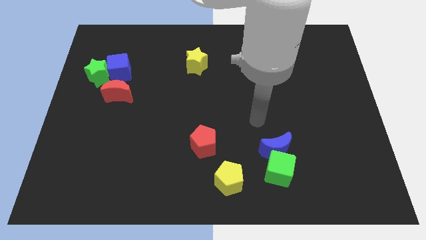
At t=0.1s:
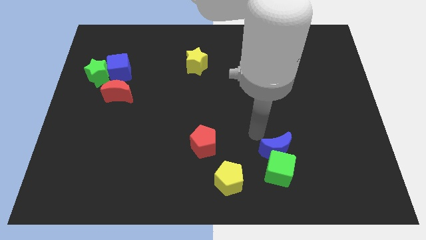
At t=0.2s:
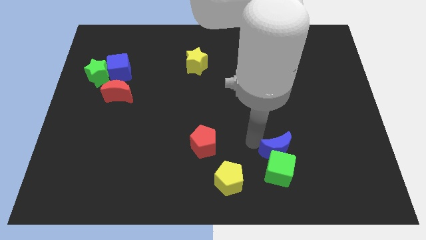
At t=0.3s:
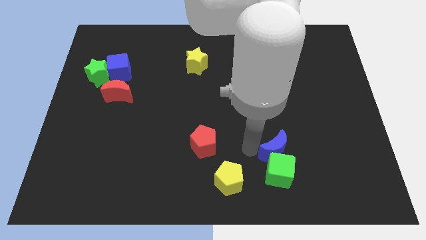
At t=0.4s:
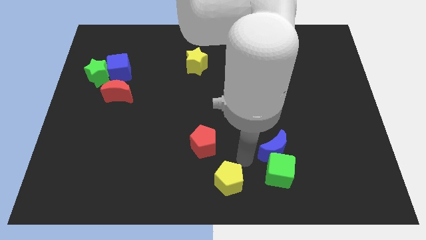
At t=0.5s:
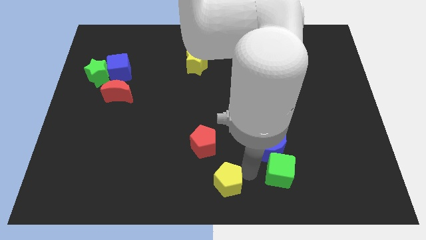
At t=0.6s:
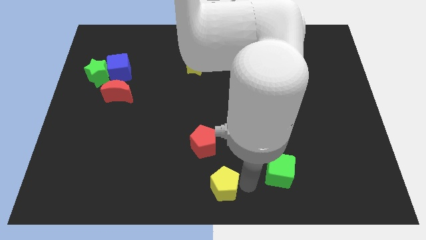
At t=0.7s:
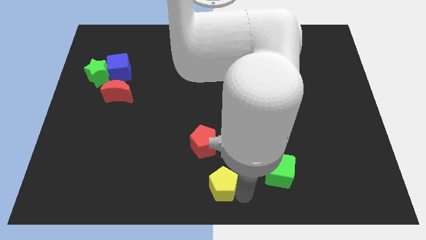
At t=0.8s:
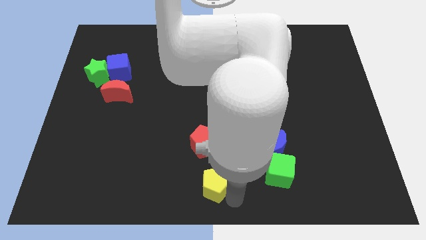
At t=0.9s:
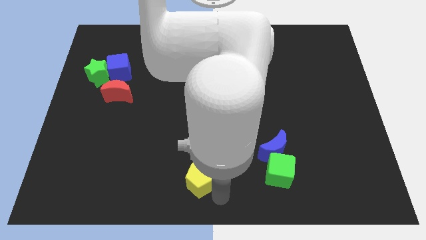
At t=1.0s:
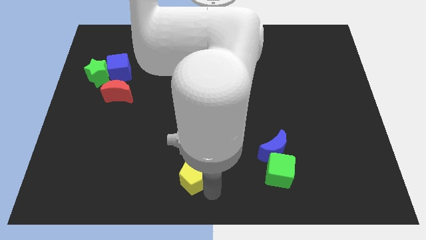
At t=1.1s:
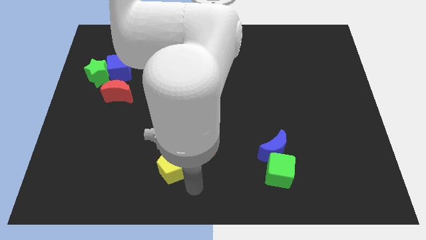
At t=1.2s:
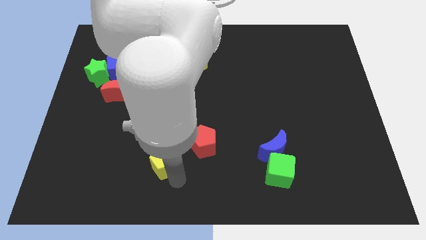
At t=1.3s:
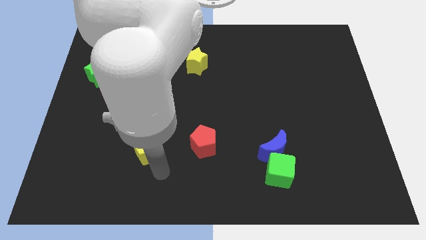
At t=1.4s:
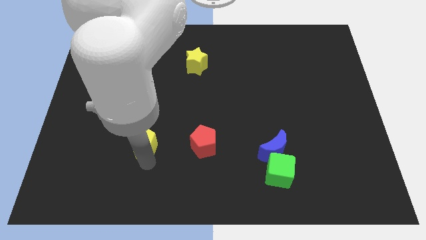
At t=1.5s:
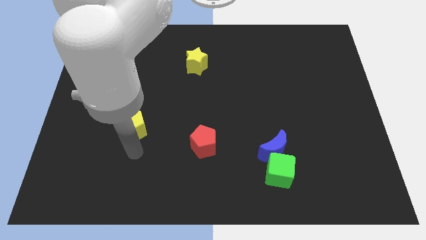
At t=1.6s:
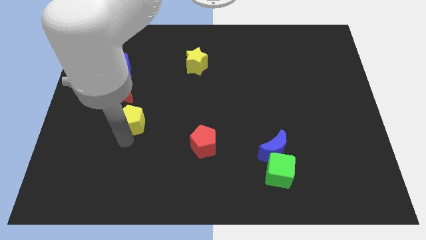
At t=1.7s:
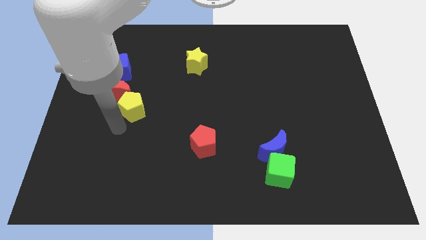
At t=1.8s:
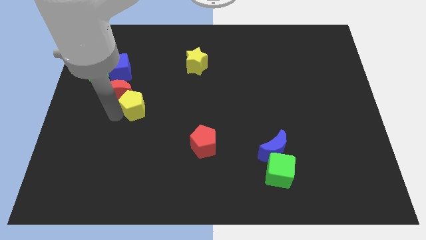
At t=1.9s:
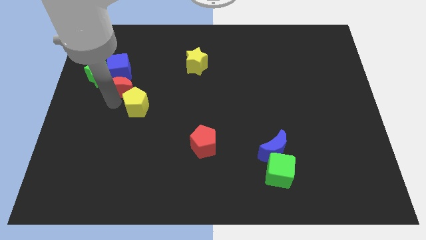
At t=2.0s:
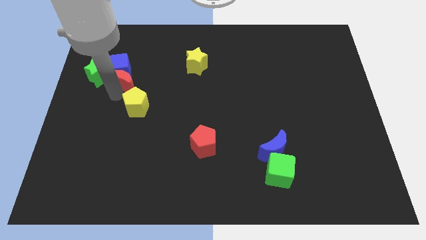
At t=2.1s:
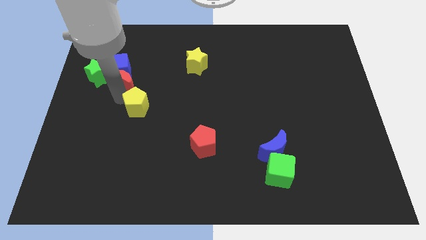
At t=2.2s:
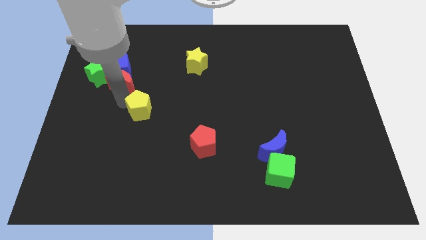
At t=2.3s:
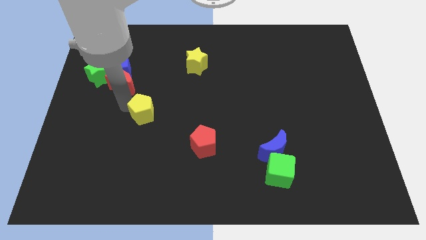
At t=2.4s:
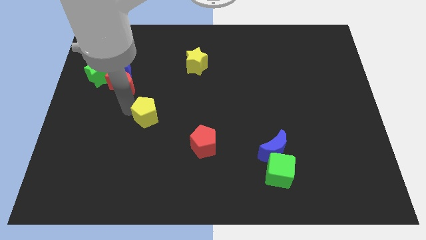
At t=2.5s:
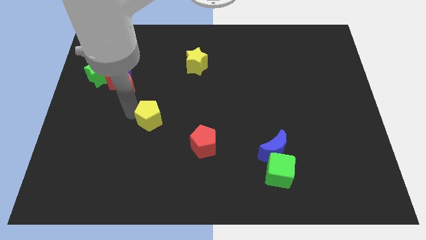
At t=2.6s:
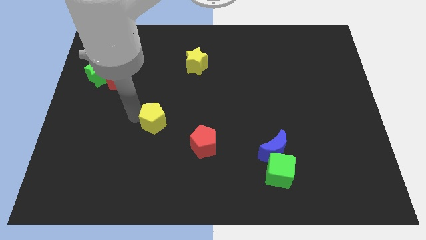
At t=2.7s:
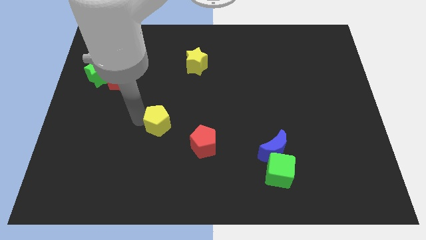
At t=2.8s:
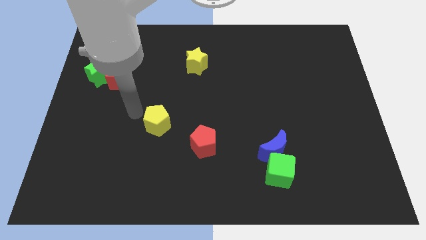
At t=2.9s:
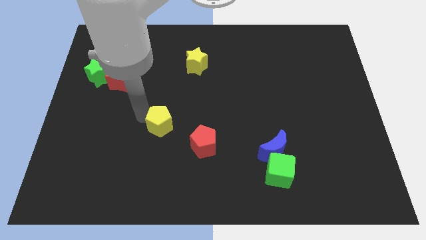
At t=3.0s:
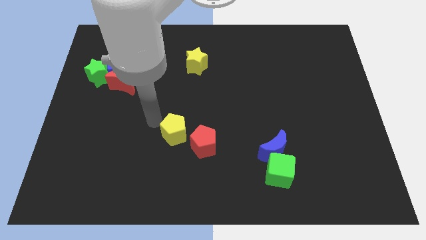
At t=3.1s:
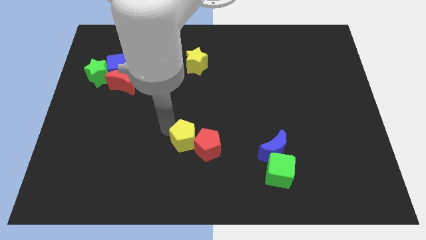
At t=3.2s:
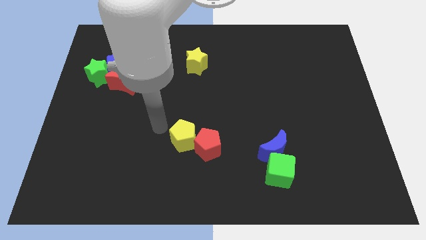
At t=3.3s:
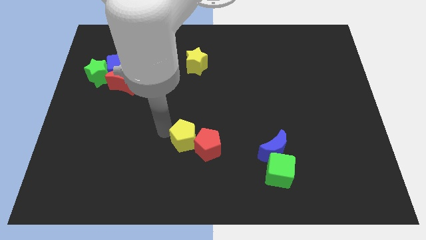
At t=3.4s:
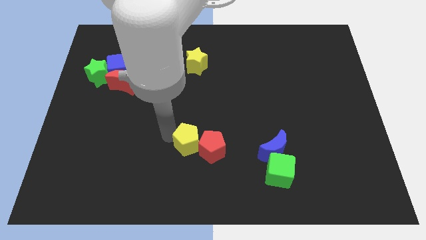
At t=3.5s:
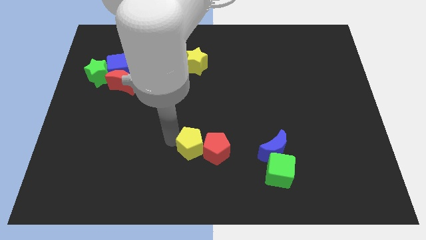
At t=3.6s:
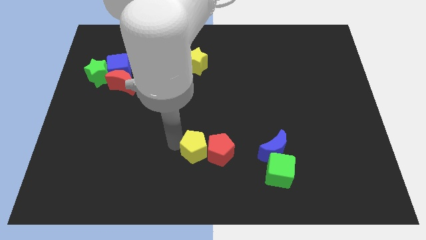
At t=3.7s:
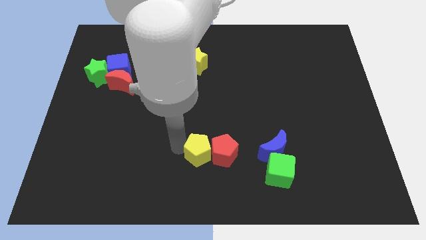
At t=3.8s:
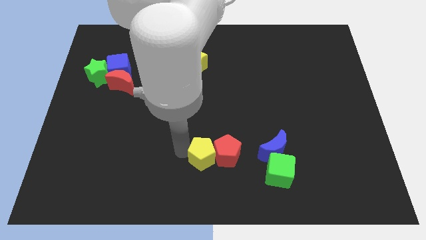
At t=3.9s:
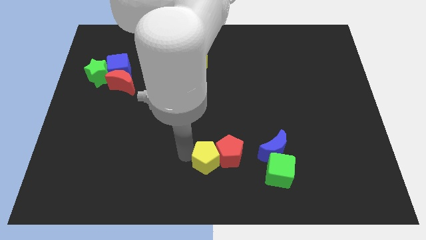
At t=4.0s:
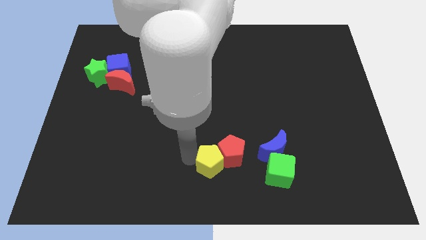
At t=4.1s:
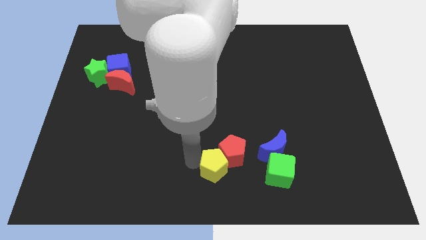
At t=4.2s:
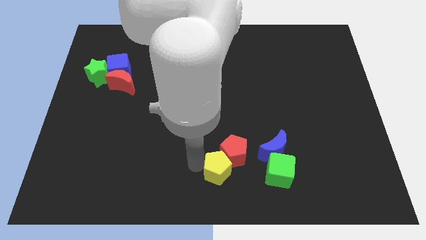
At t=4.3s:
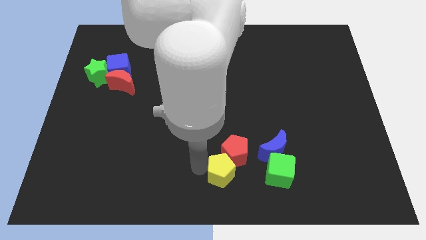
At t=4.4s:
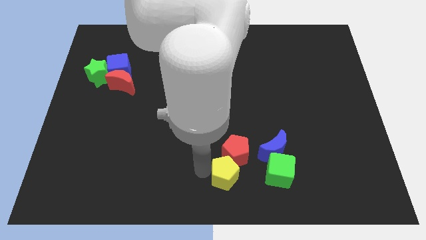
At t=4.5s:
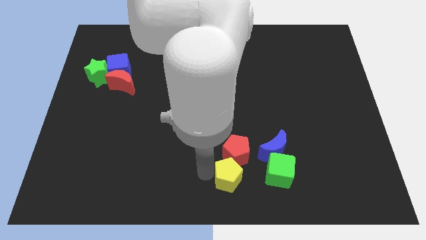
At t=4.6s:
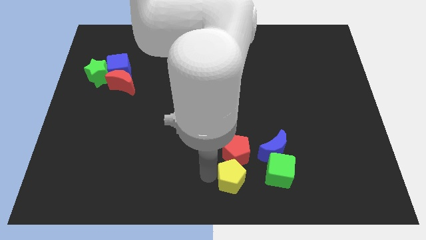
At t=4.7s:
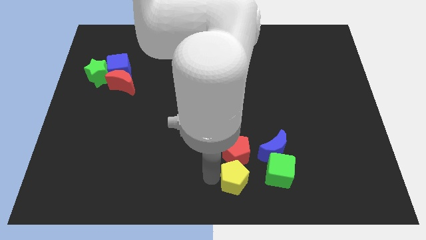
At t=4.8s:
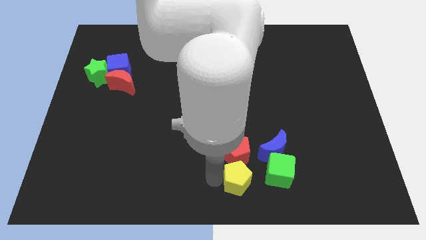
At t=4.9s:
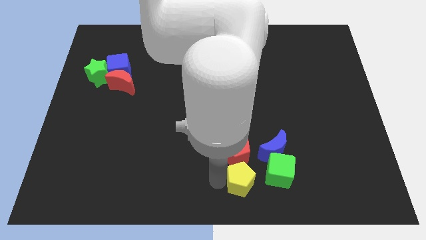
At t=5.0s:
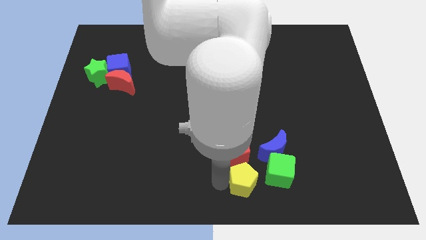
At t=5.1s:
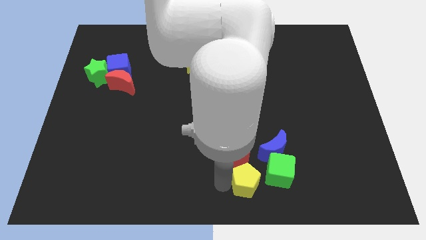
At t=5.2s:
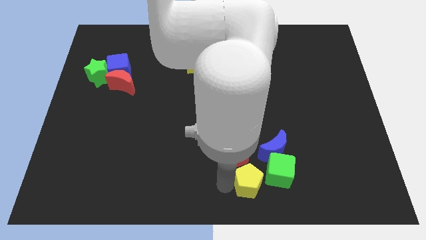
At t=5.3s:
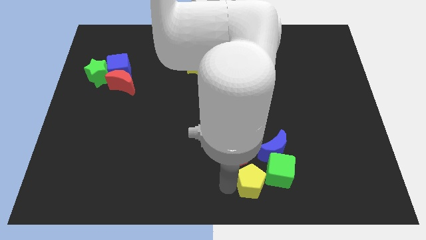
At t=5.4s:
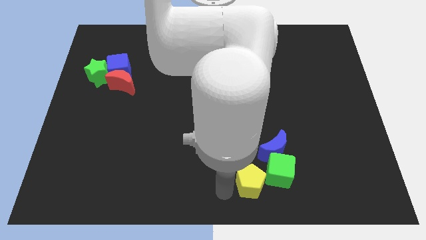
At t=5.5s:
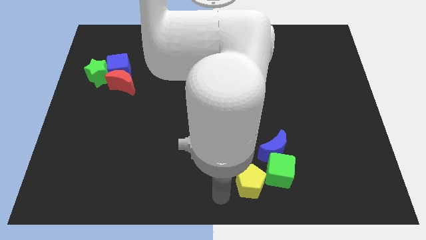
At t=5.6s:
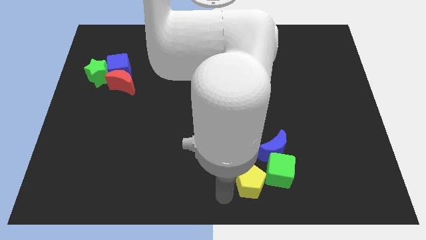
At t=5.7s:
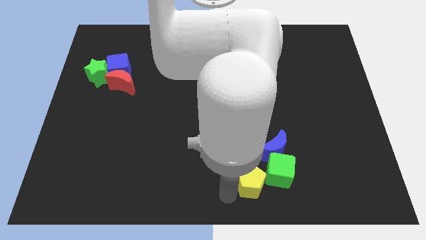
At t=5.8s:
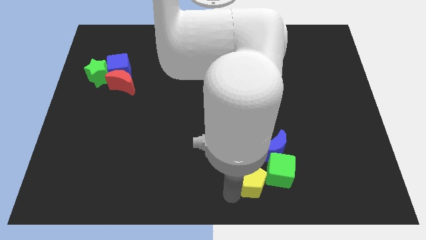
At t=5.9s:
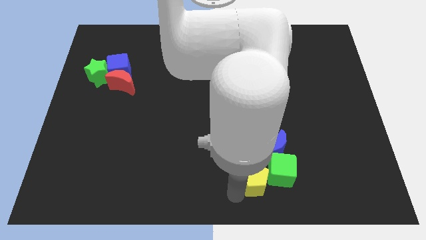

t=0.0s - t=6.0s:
slide the yellow pentagon towards the green cube

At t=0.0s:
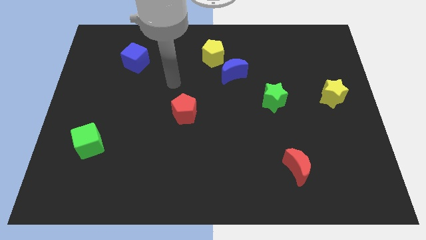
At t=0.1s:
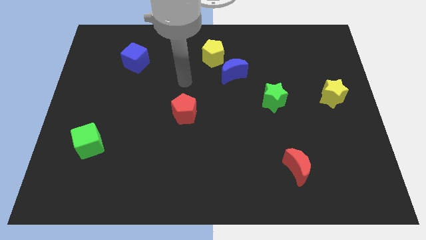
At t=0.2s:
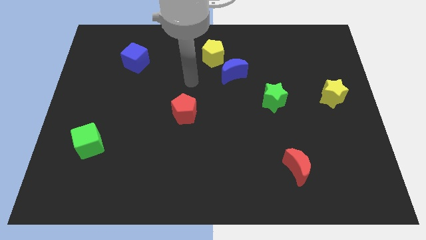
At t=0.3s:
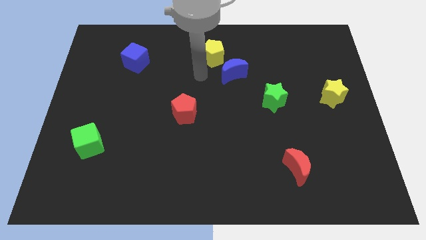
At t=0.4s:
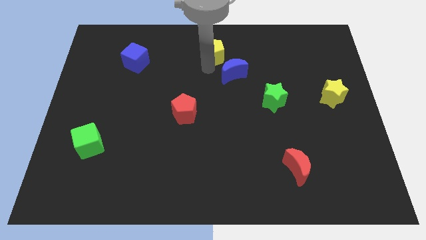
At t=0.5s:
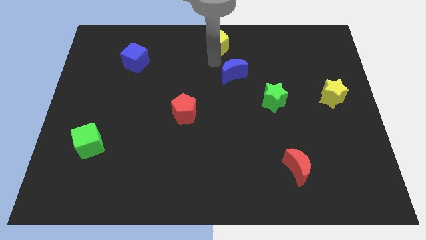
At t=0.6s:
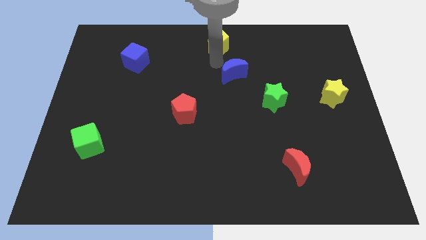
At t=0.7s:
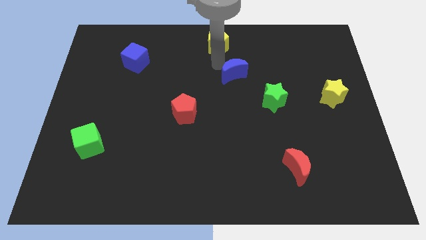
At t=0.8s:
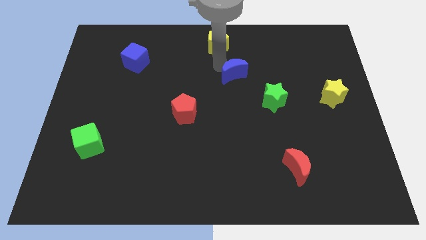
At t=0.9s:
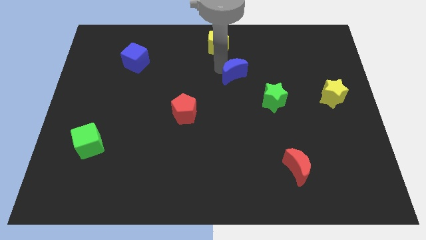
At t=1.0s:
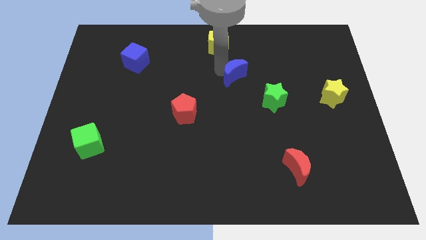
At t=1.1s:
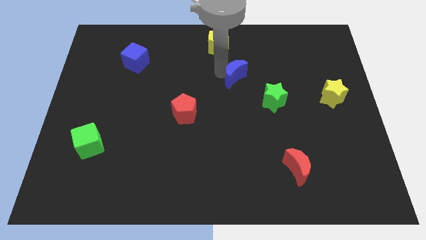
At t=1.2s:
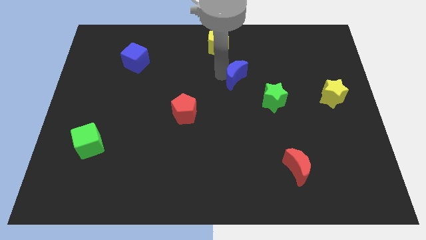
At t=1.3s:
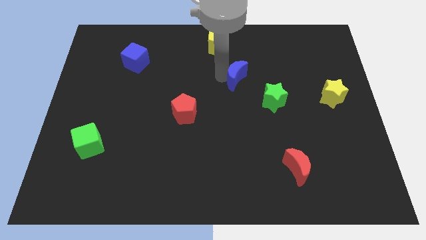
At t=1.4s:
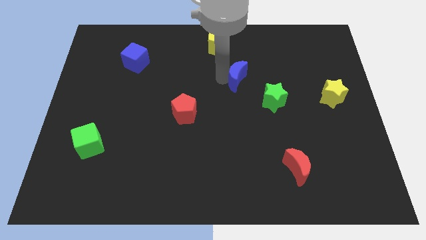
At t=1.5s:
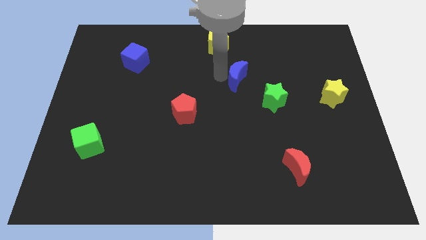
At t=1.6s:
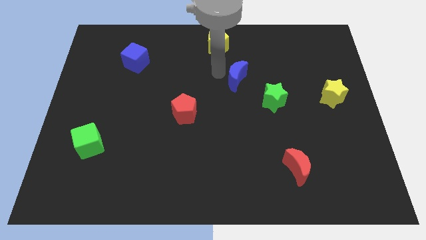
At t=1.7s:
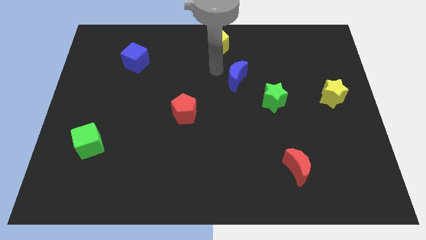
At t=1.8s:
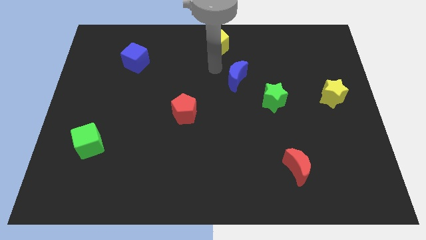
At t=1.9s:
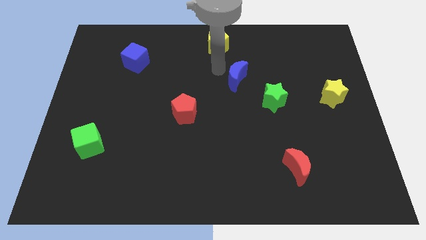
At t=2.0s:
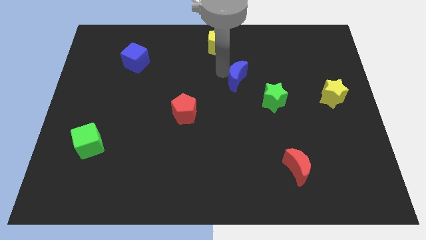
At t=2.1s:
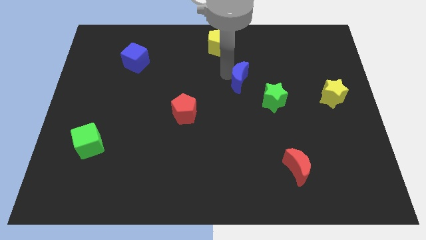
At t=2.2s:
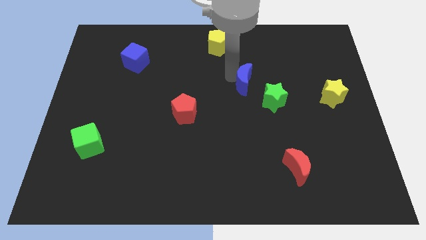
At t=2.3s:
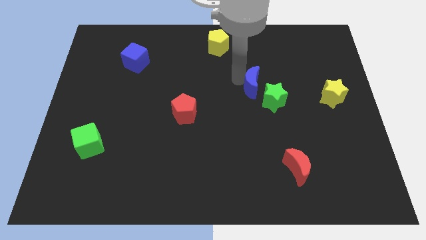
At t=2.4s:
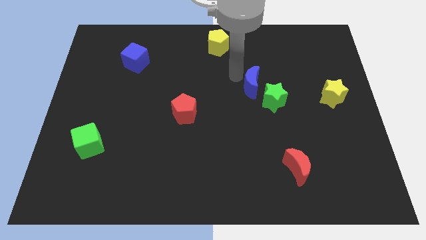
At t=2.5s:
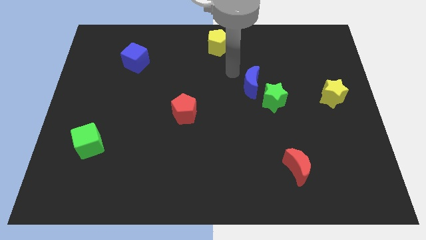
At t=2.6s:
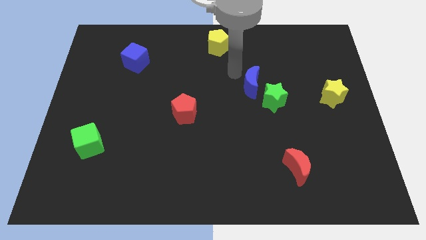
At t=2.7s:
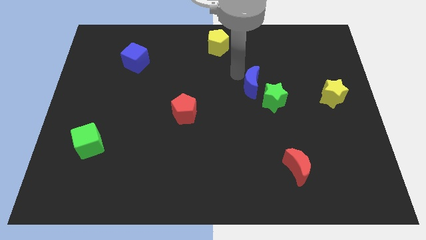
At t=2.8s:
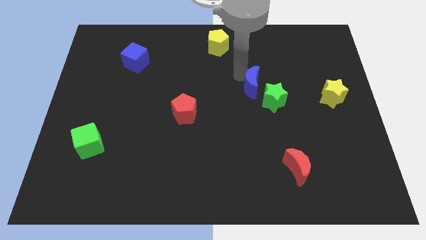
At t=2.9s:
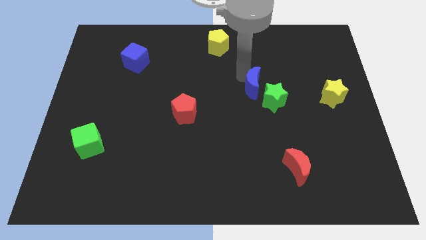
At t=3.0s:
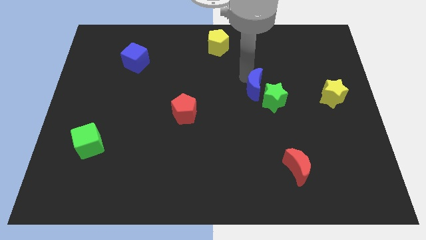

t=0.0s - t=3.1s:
slide the blue moon to the green star
